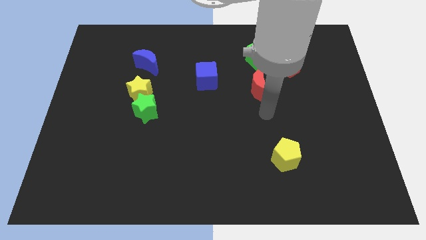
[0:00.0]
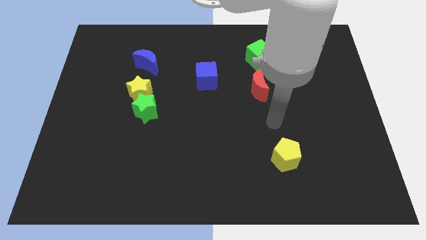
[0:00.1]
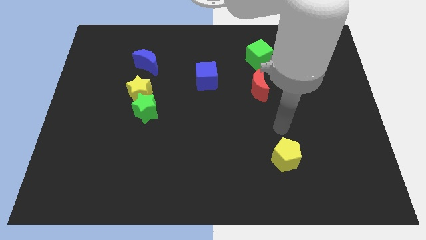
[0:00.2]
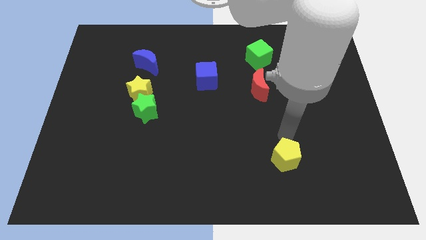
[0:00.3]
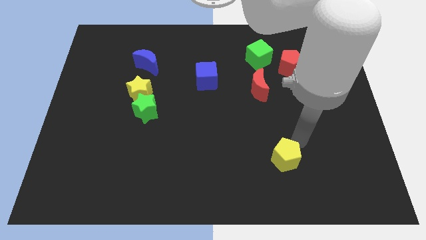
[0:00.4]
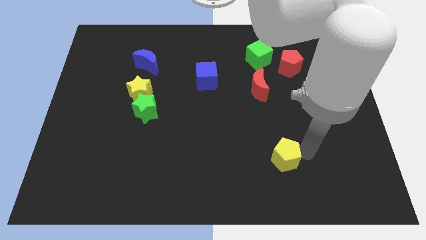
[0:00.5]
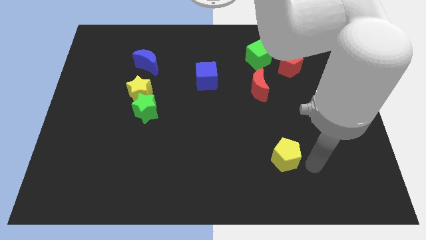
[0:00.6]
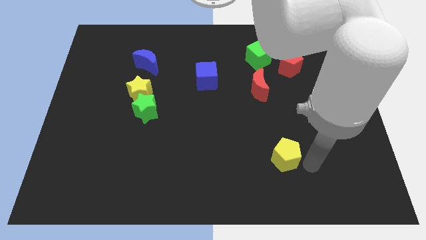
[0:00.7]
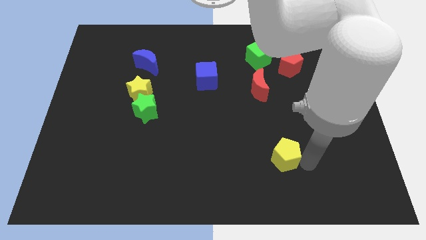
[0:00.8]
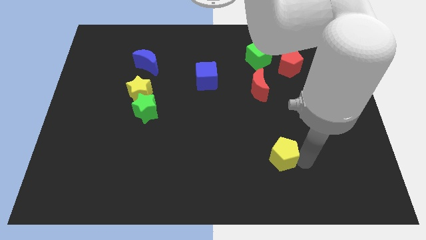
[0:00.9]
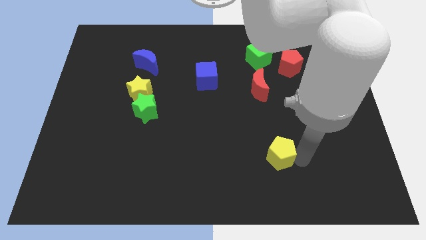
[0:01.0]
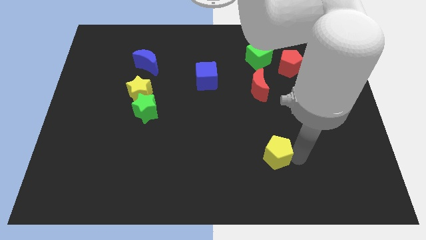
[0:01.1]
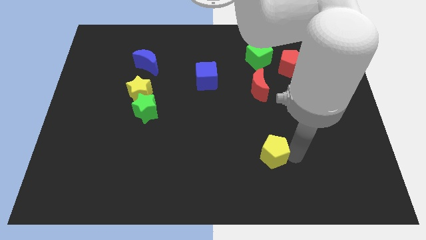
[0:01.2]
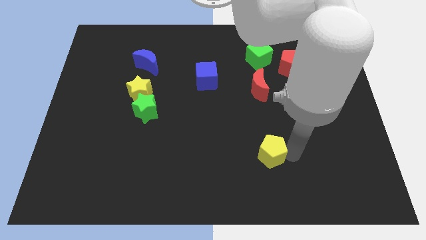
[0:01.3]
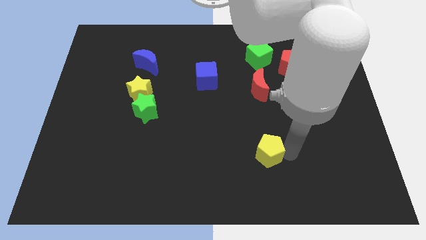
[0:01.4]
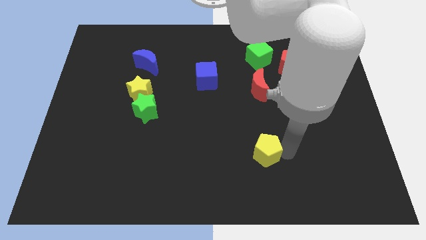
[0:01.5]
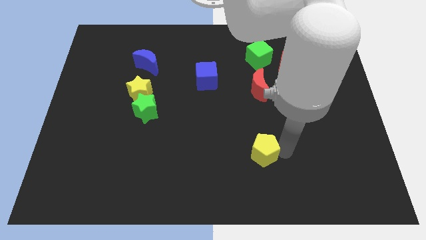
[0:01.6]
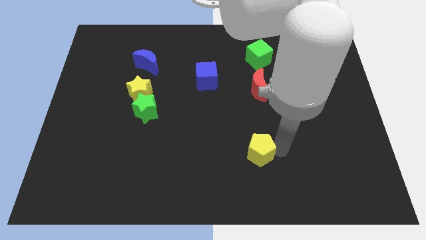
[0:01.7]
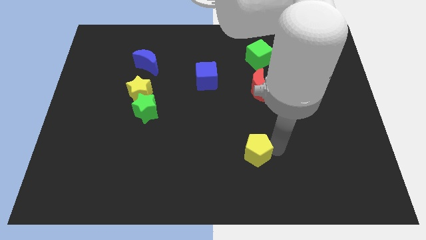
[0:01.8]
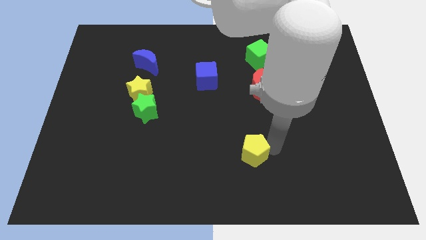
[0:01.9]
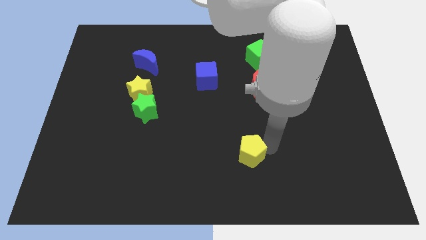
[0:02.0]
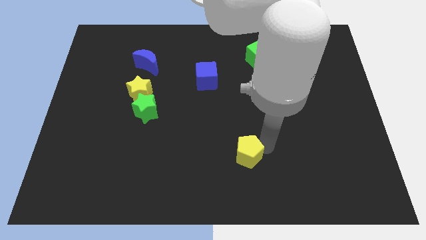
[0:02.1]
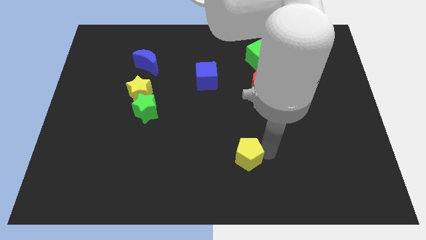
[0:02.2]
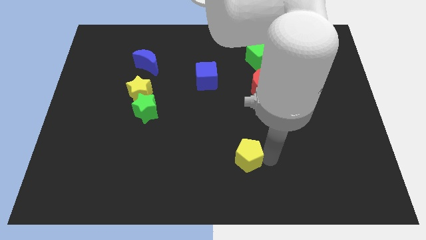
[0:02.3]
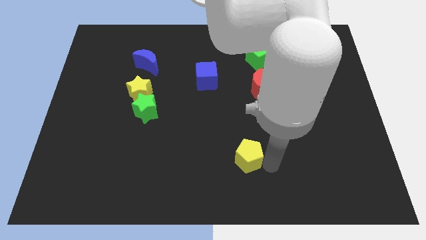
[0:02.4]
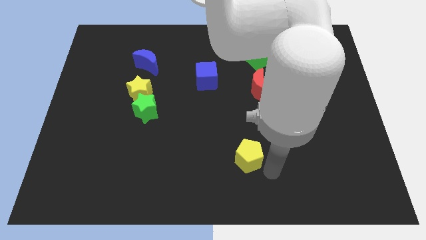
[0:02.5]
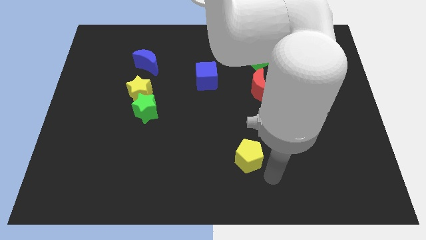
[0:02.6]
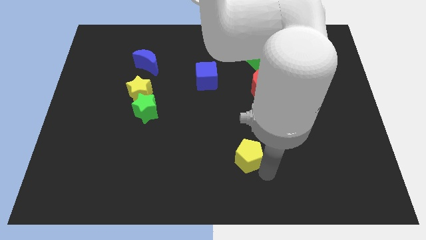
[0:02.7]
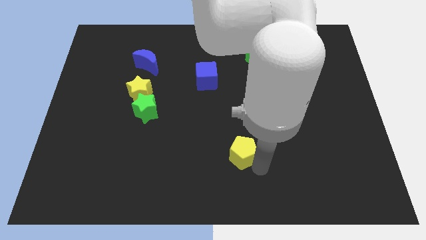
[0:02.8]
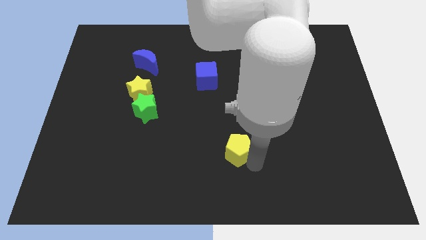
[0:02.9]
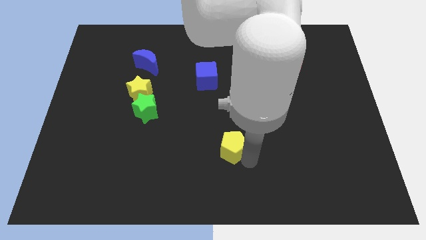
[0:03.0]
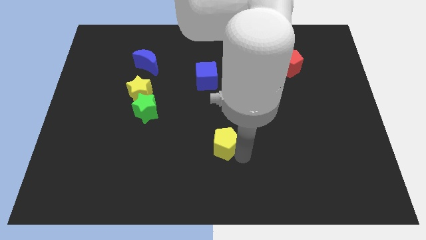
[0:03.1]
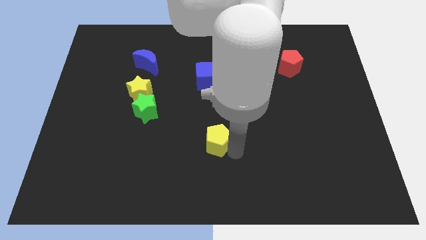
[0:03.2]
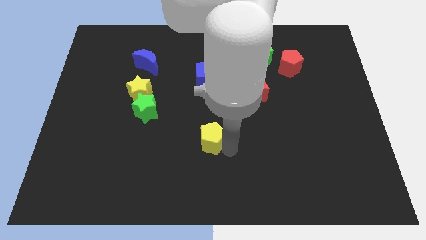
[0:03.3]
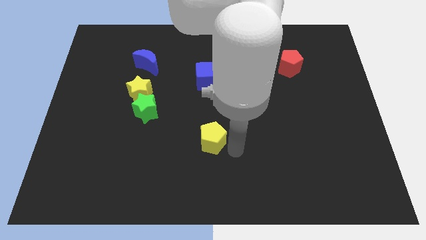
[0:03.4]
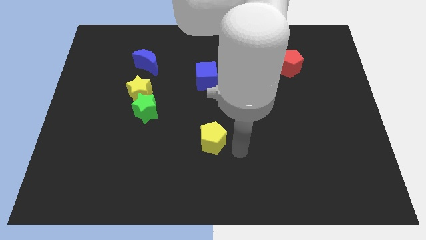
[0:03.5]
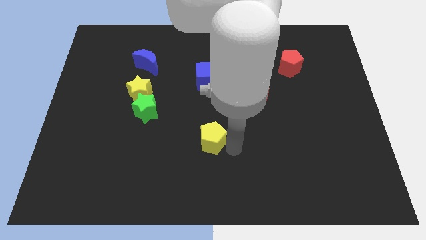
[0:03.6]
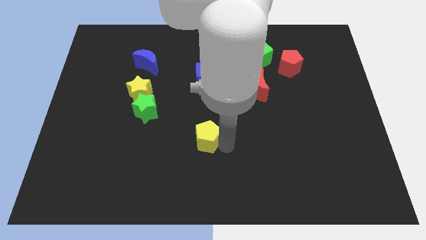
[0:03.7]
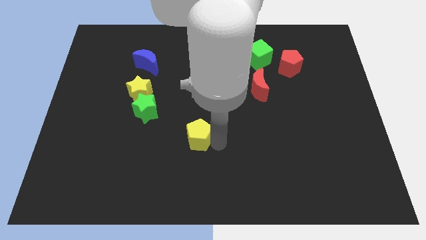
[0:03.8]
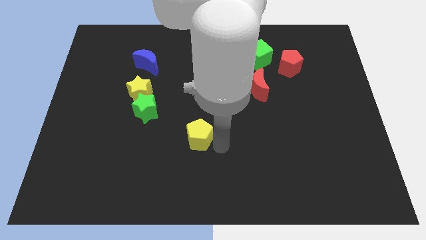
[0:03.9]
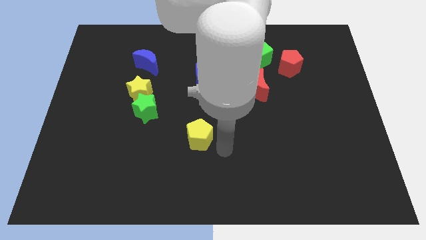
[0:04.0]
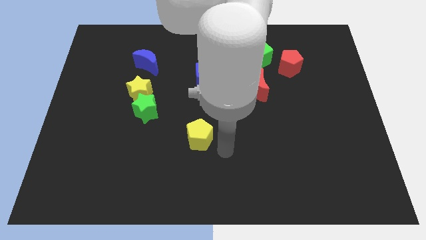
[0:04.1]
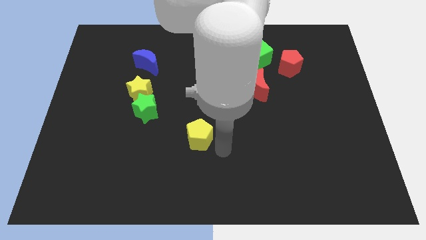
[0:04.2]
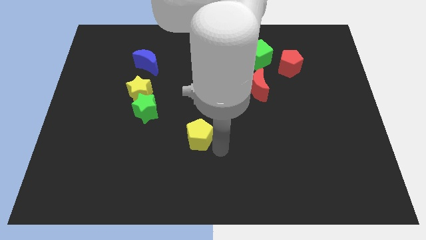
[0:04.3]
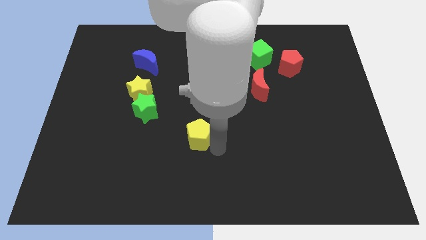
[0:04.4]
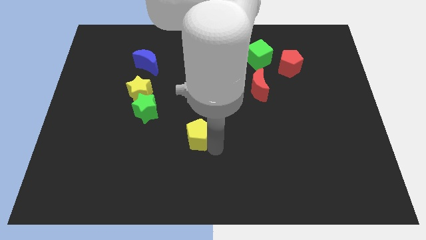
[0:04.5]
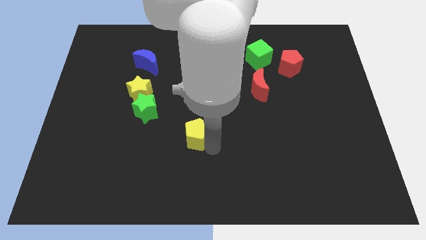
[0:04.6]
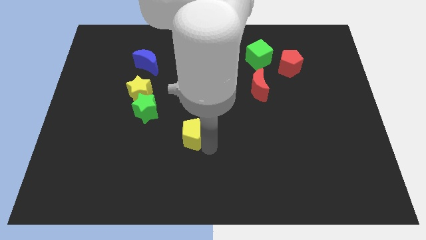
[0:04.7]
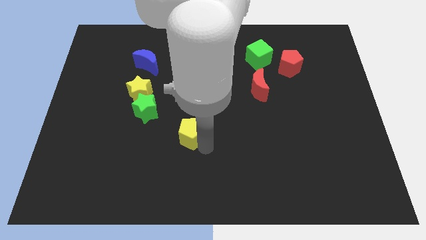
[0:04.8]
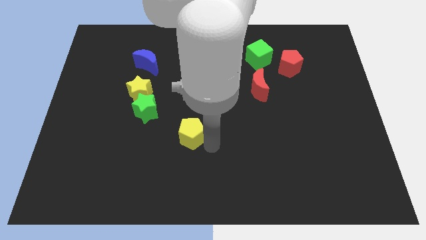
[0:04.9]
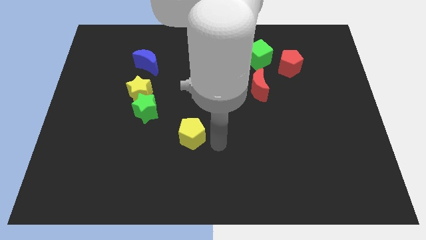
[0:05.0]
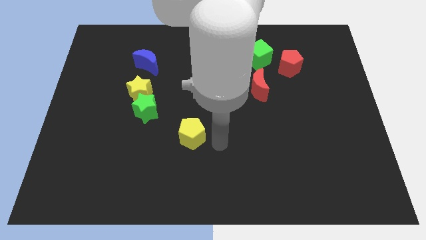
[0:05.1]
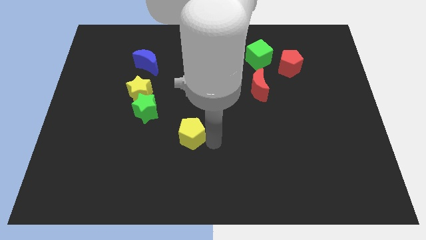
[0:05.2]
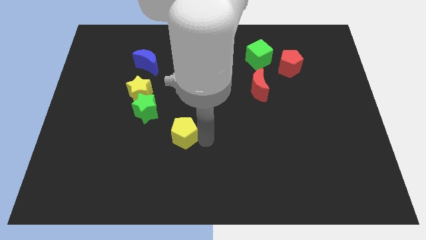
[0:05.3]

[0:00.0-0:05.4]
push the yellow pentagon to the bottom right side of the green star

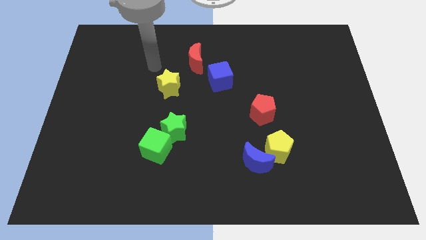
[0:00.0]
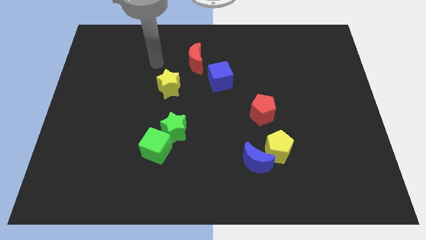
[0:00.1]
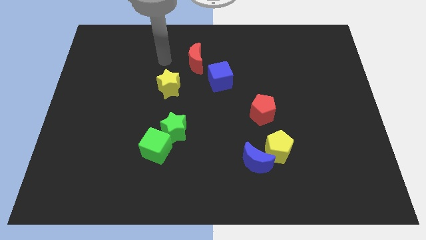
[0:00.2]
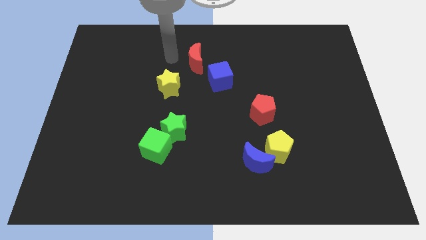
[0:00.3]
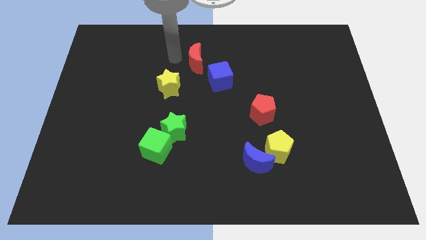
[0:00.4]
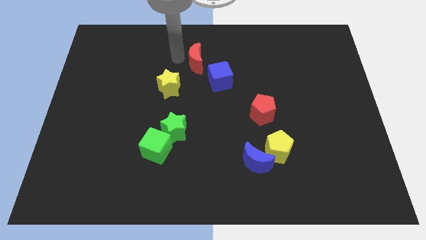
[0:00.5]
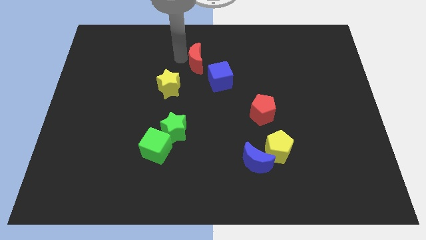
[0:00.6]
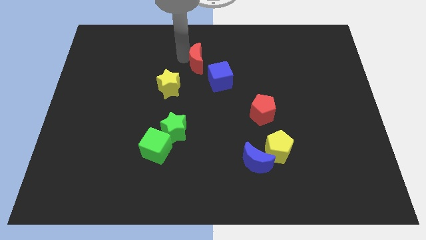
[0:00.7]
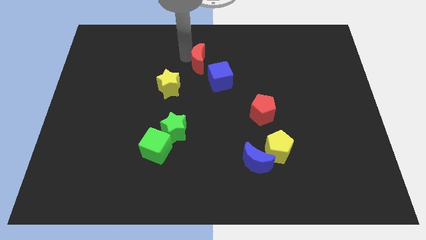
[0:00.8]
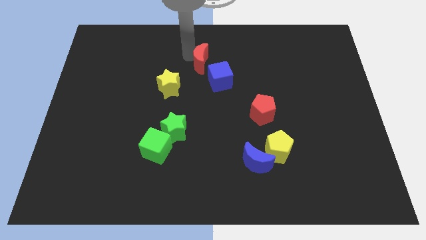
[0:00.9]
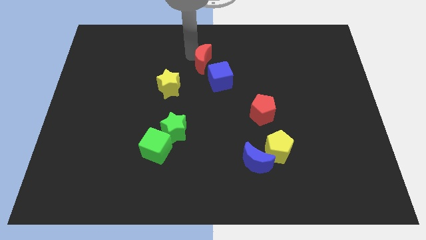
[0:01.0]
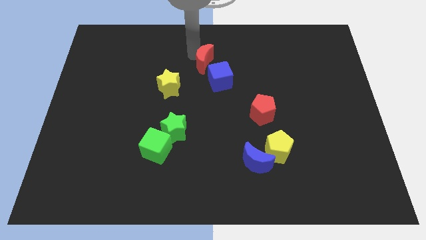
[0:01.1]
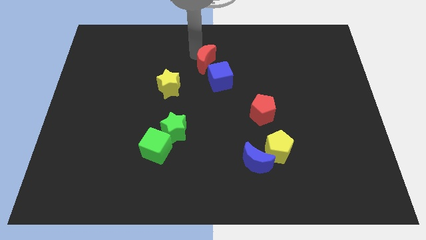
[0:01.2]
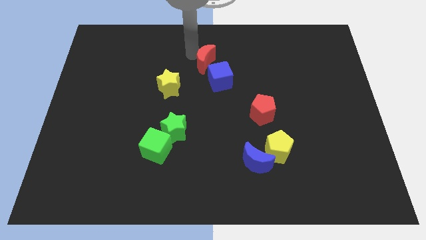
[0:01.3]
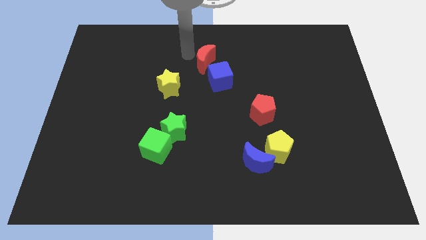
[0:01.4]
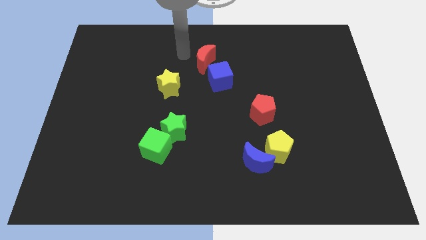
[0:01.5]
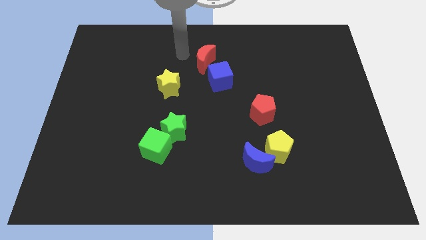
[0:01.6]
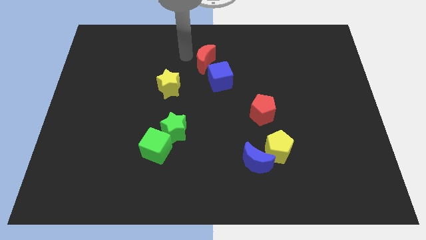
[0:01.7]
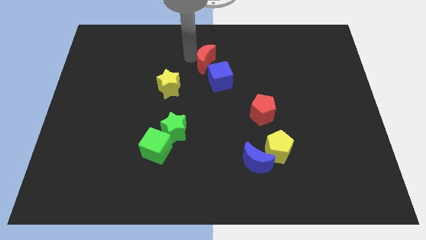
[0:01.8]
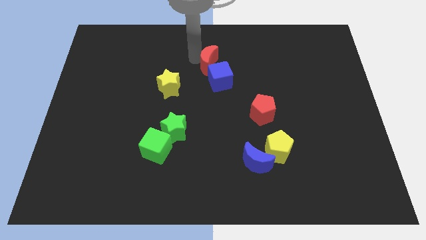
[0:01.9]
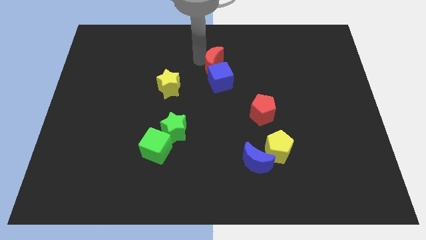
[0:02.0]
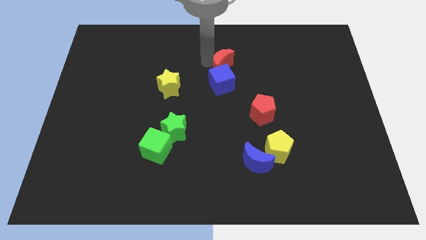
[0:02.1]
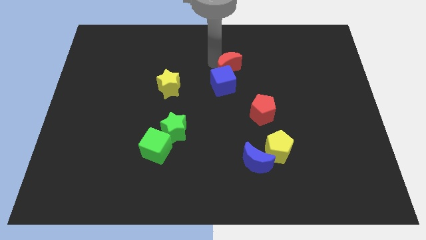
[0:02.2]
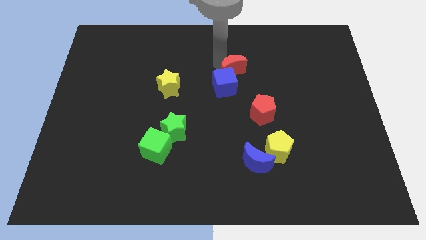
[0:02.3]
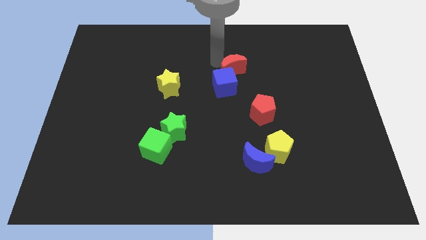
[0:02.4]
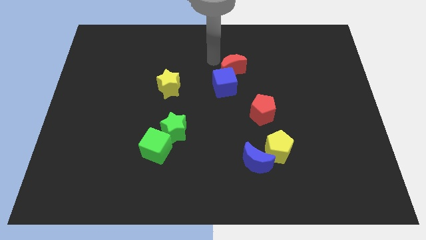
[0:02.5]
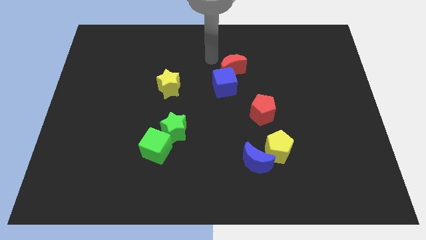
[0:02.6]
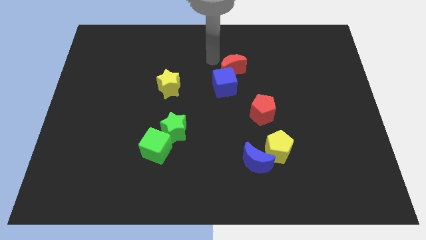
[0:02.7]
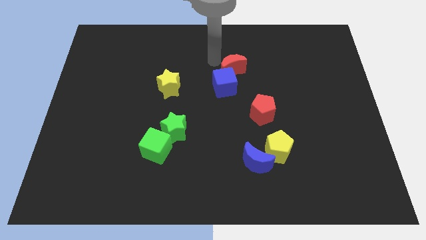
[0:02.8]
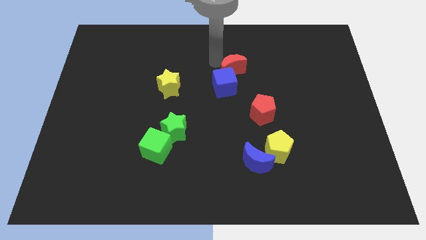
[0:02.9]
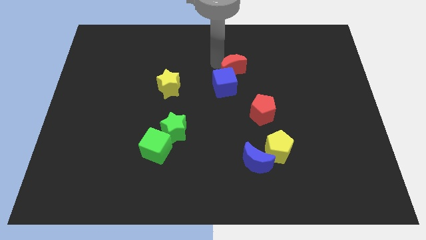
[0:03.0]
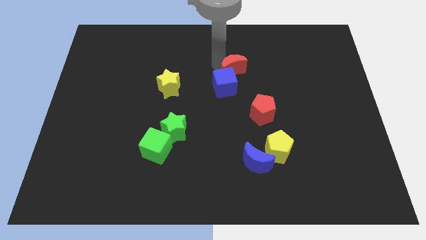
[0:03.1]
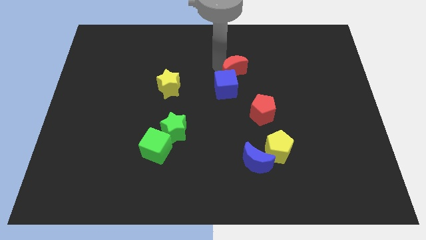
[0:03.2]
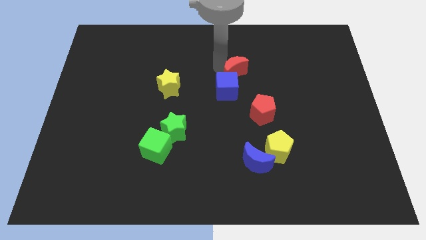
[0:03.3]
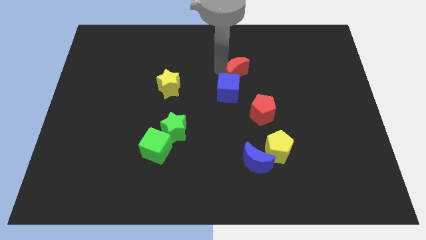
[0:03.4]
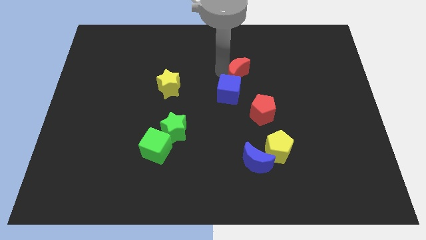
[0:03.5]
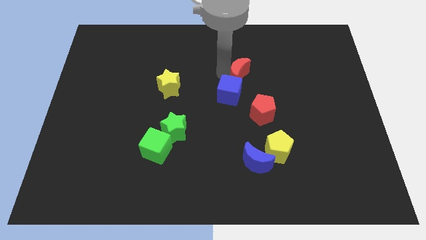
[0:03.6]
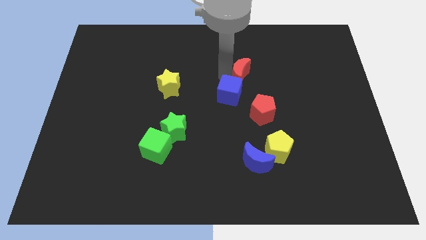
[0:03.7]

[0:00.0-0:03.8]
slide the red moon to the top side of the red pentagon
